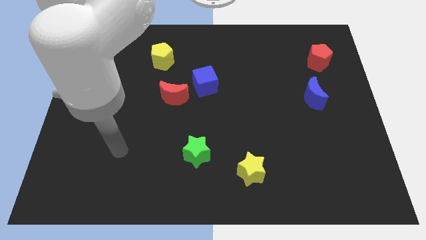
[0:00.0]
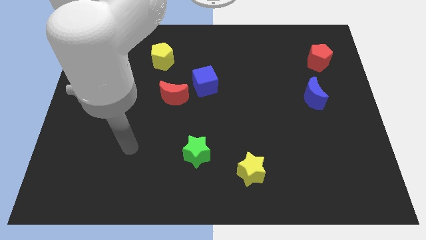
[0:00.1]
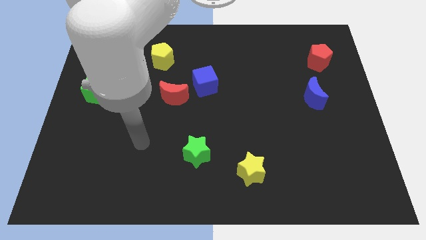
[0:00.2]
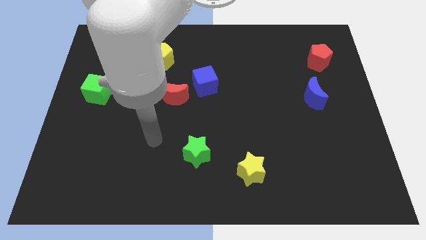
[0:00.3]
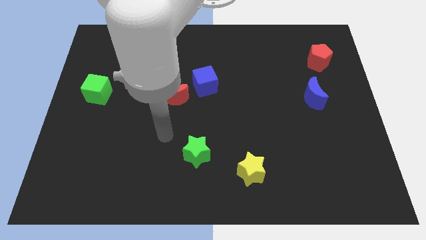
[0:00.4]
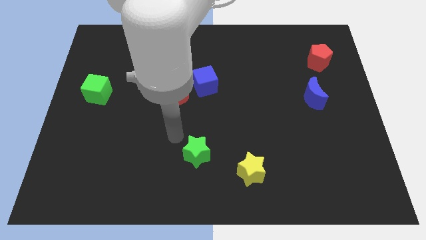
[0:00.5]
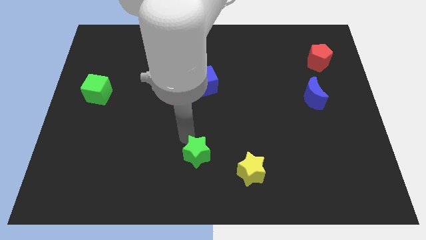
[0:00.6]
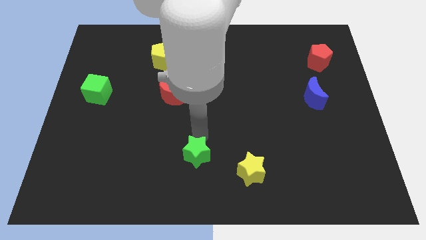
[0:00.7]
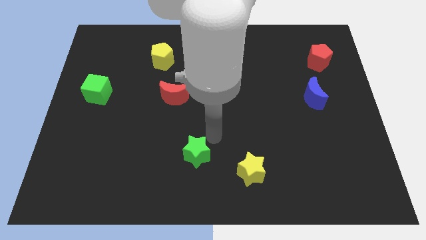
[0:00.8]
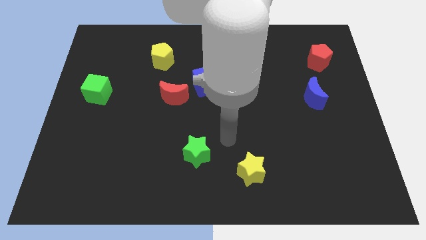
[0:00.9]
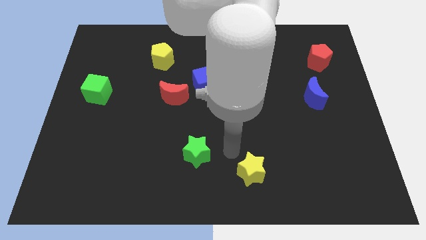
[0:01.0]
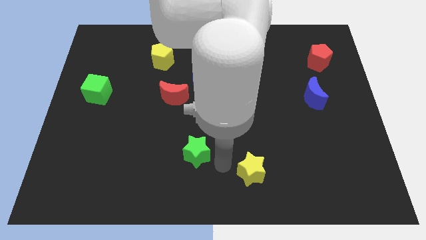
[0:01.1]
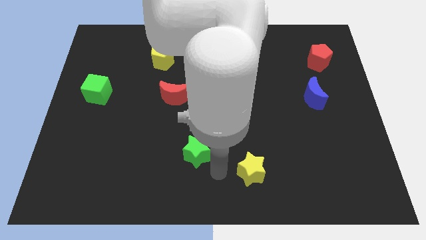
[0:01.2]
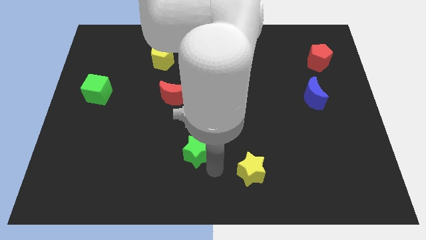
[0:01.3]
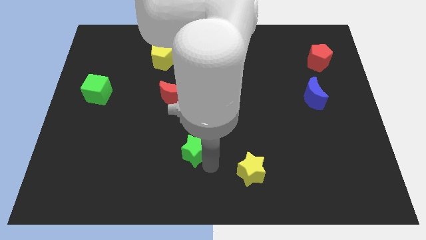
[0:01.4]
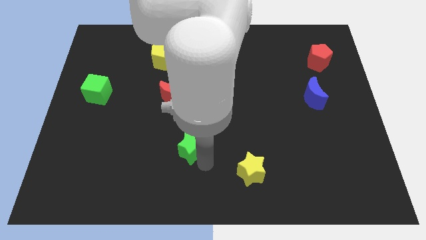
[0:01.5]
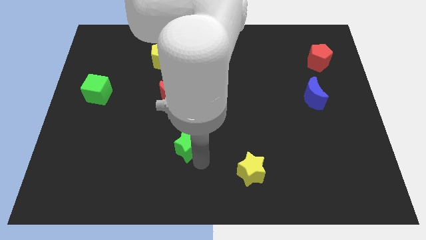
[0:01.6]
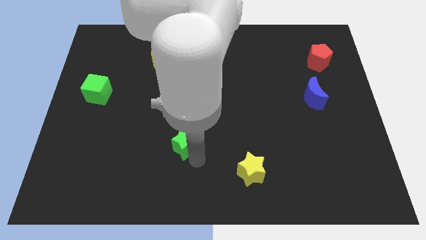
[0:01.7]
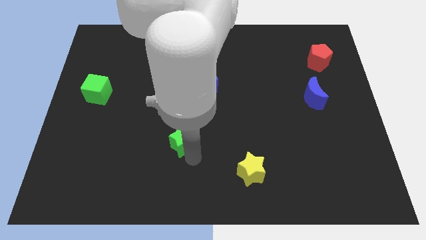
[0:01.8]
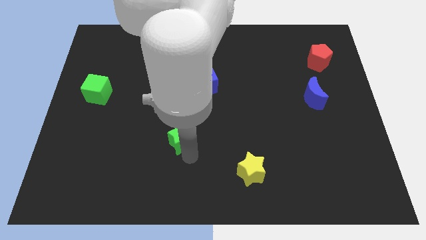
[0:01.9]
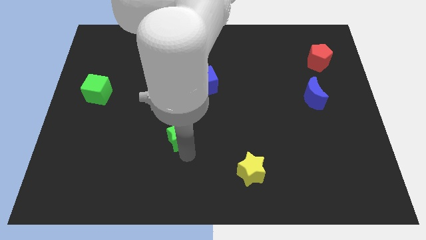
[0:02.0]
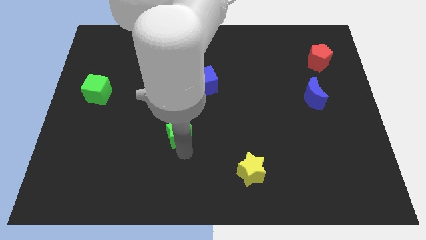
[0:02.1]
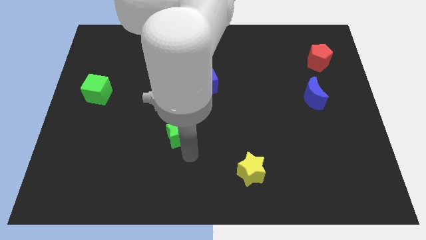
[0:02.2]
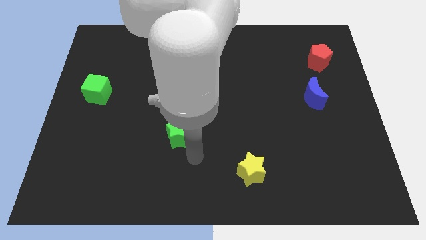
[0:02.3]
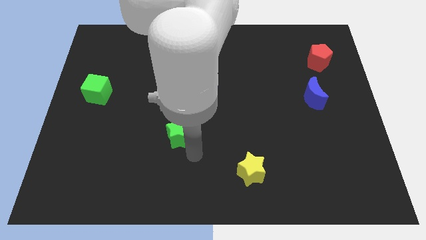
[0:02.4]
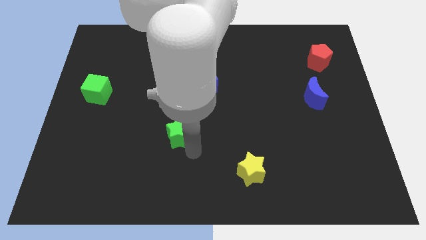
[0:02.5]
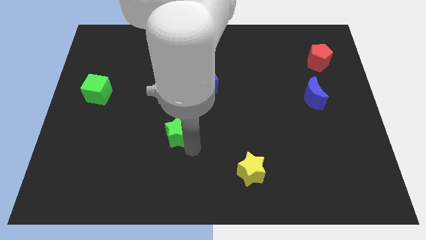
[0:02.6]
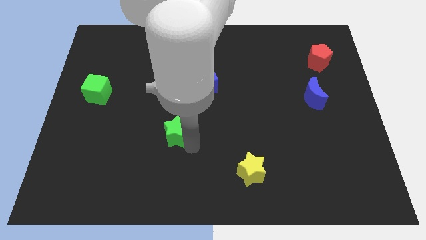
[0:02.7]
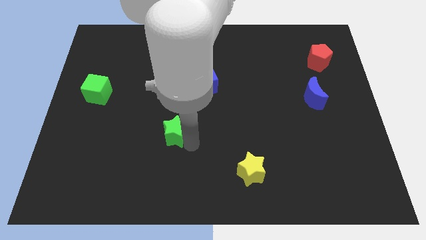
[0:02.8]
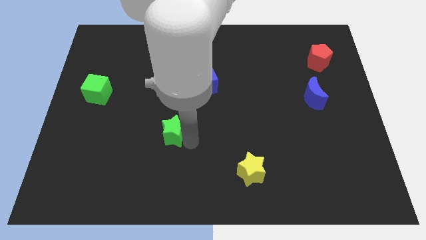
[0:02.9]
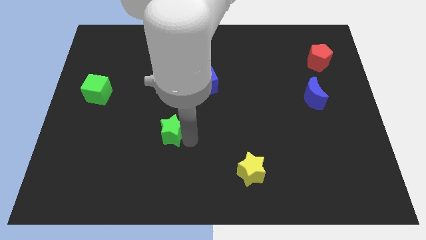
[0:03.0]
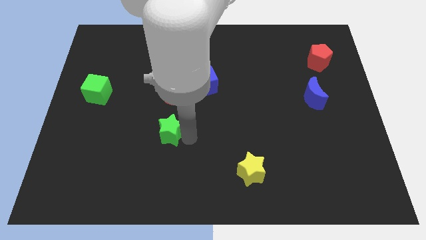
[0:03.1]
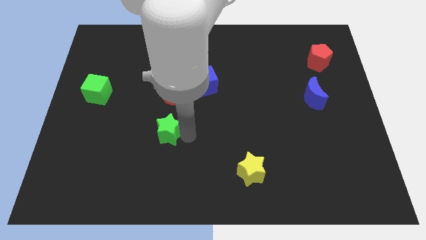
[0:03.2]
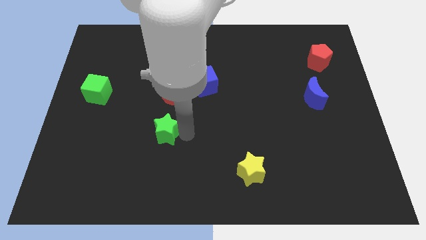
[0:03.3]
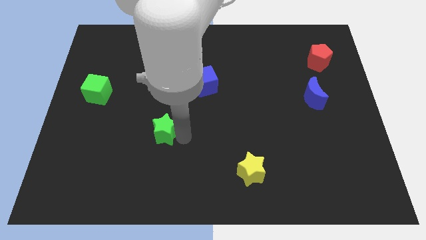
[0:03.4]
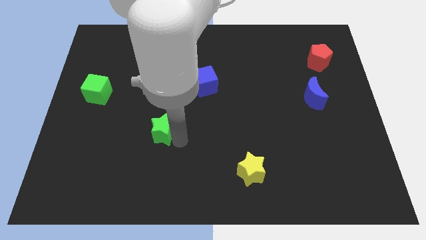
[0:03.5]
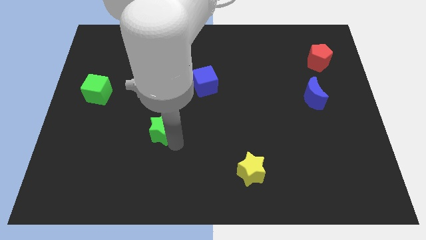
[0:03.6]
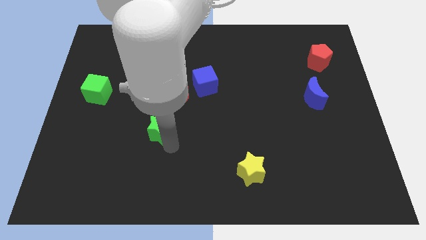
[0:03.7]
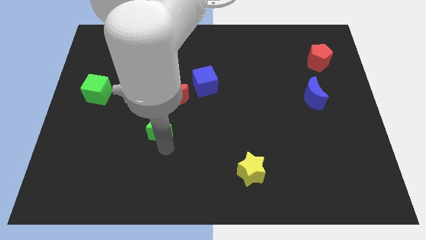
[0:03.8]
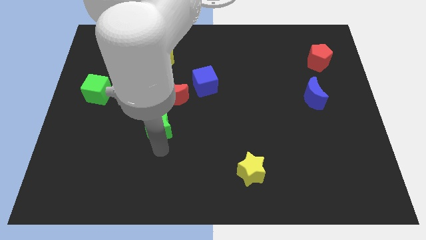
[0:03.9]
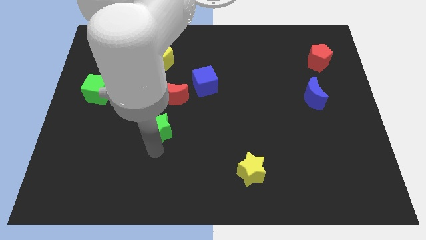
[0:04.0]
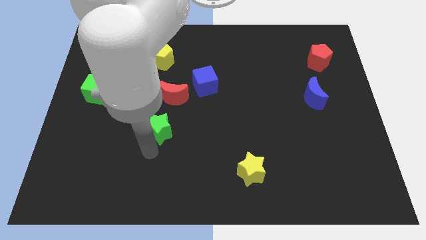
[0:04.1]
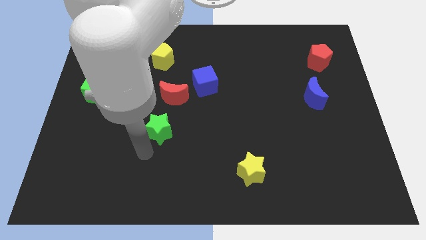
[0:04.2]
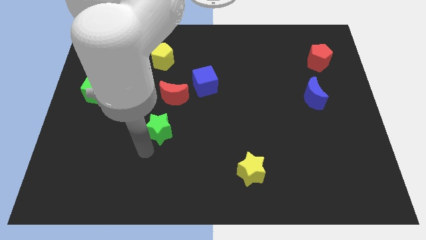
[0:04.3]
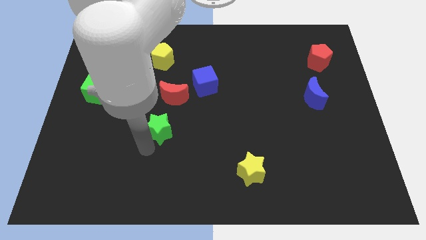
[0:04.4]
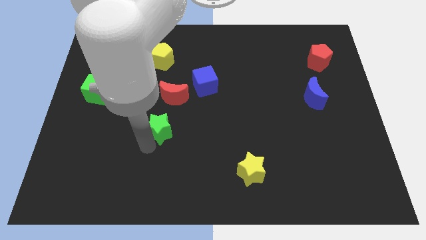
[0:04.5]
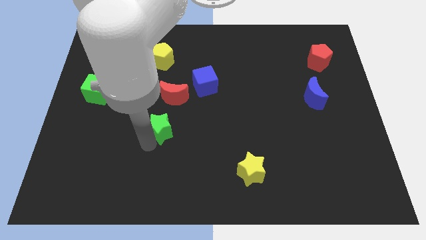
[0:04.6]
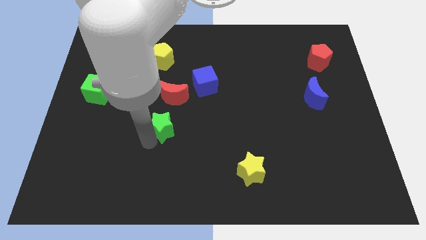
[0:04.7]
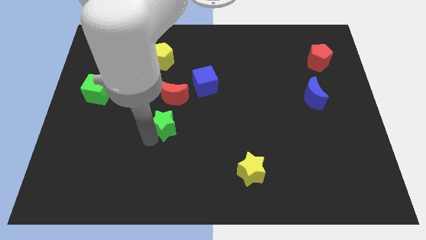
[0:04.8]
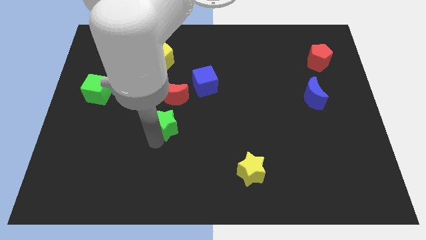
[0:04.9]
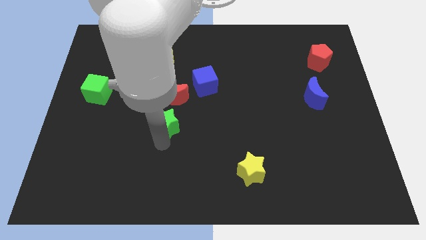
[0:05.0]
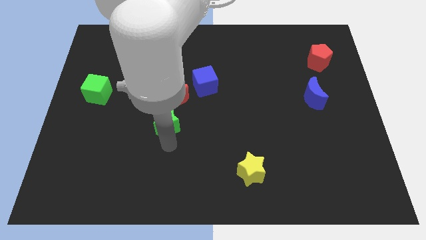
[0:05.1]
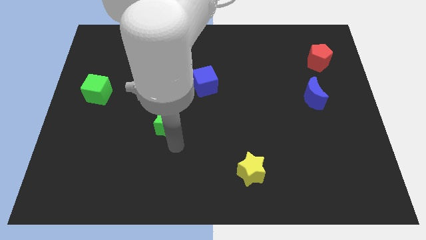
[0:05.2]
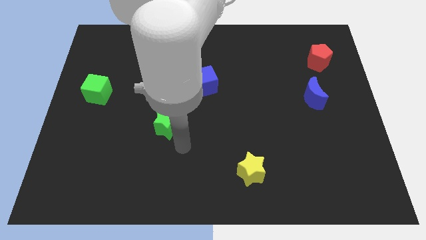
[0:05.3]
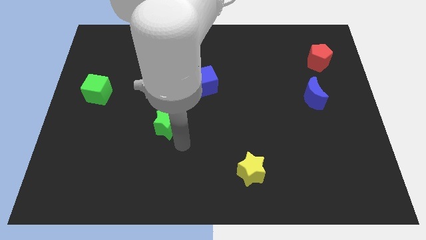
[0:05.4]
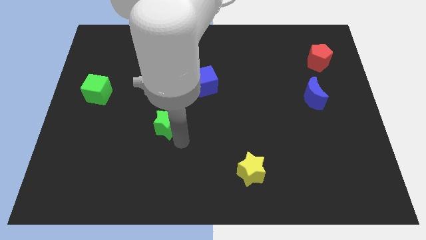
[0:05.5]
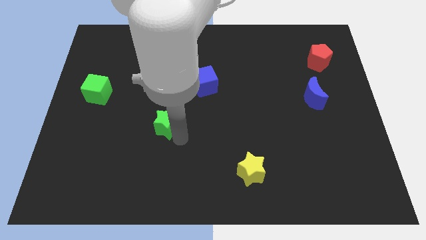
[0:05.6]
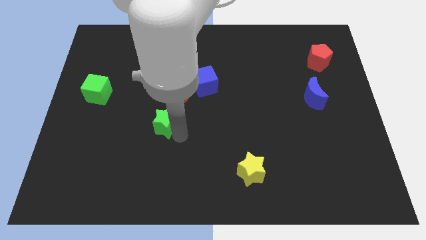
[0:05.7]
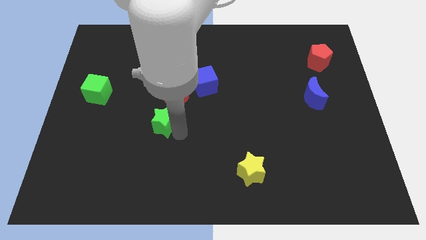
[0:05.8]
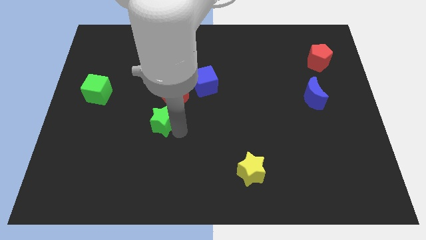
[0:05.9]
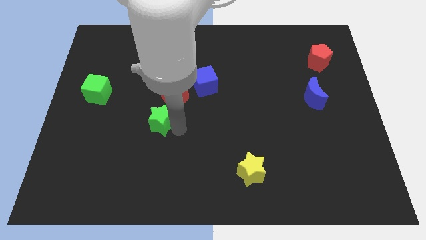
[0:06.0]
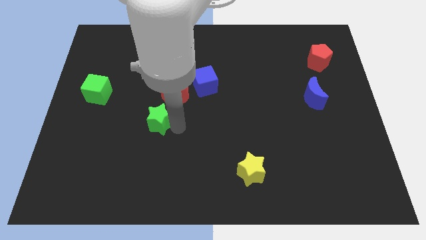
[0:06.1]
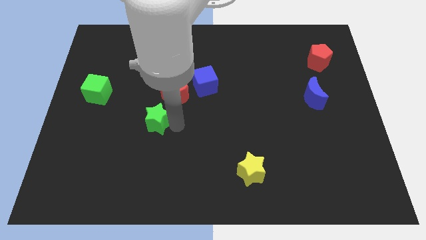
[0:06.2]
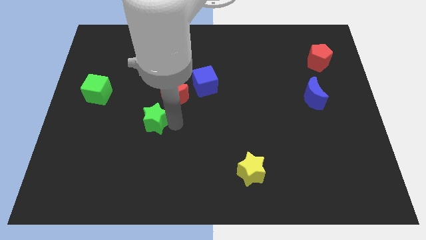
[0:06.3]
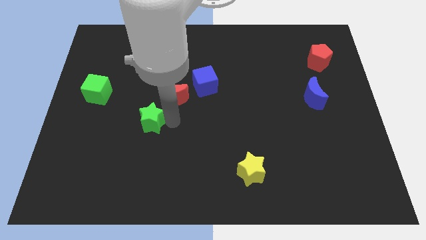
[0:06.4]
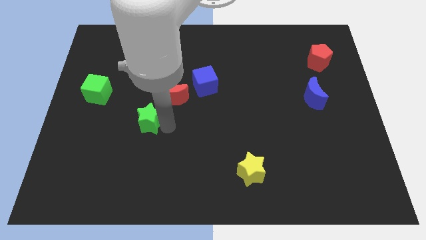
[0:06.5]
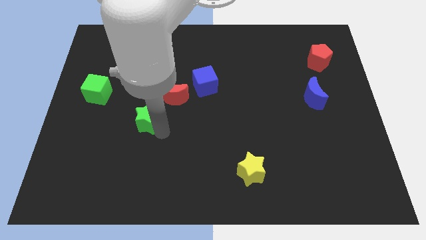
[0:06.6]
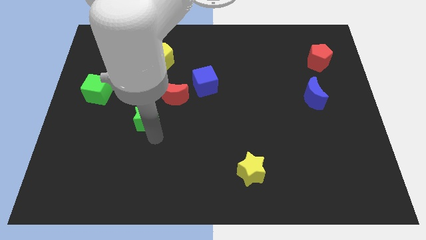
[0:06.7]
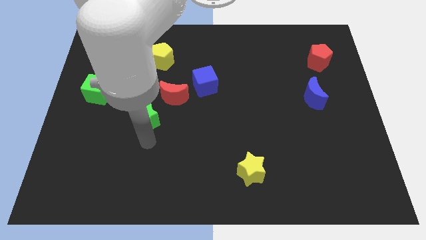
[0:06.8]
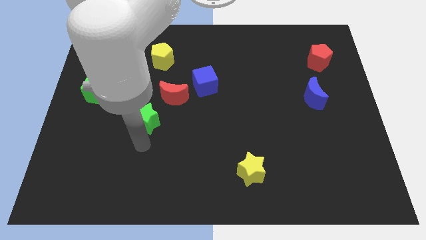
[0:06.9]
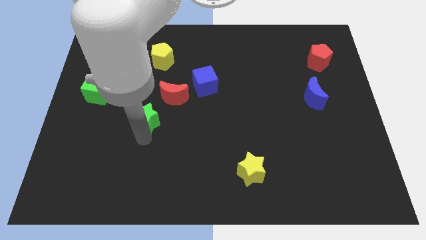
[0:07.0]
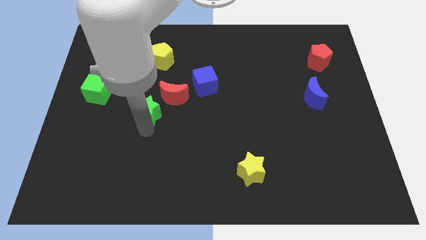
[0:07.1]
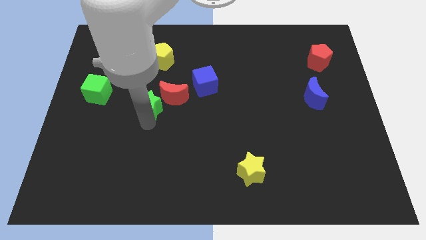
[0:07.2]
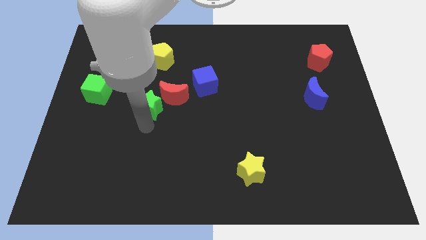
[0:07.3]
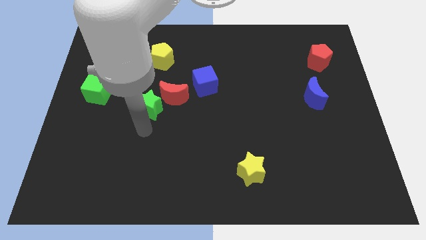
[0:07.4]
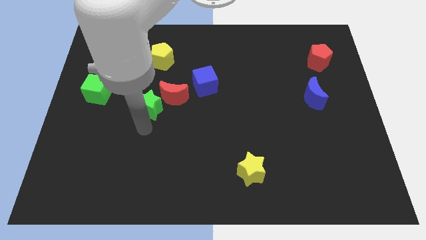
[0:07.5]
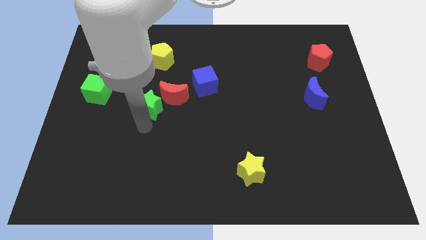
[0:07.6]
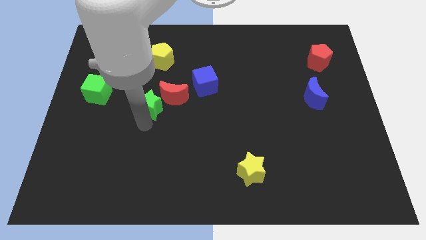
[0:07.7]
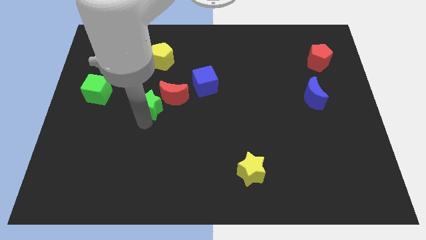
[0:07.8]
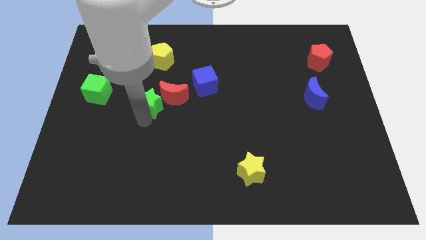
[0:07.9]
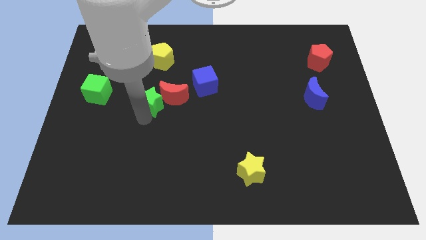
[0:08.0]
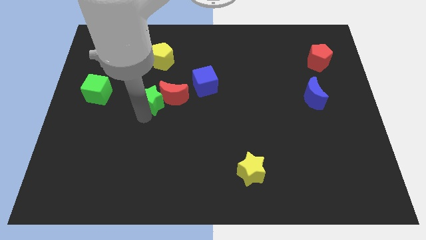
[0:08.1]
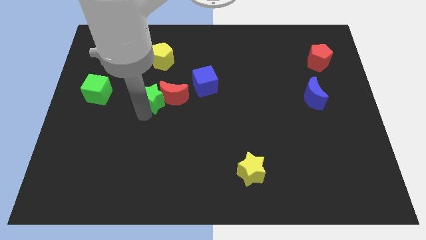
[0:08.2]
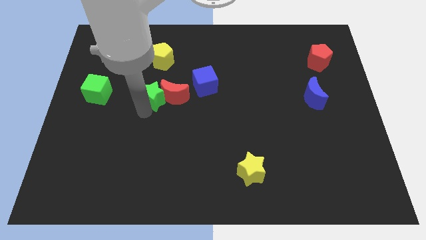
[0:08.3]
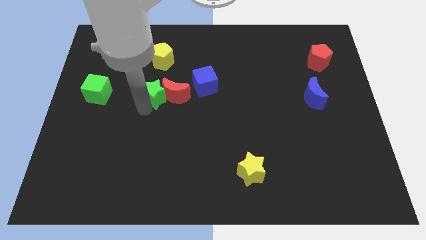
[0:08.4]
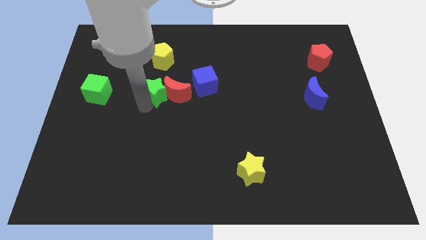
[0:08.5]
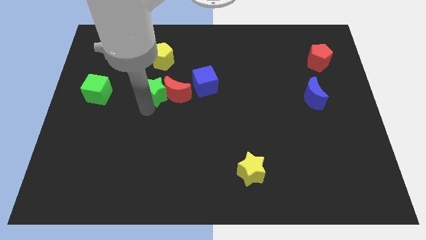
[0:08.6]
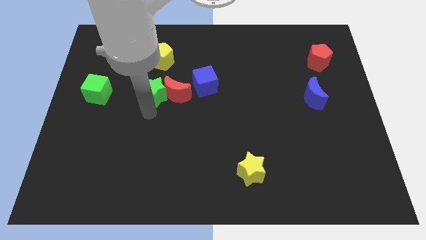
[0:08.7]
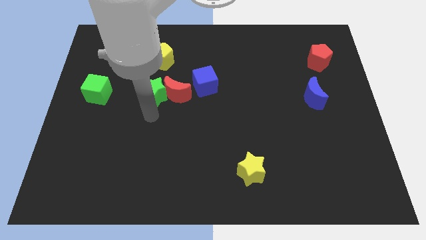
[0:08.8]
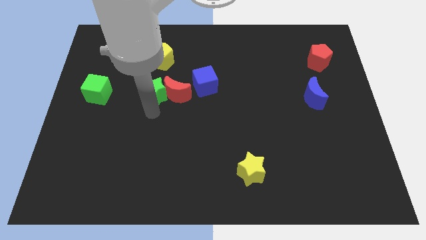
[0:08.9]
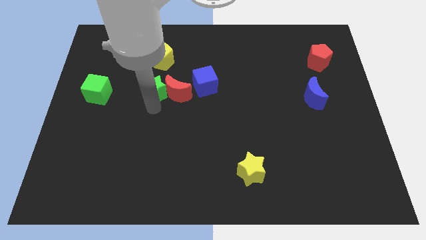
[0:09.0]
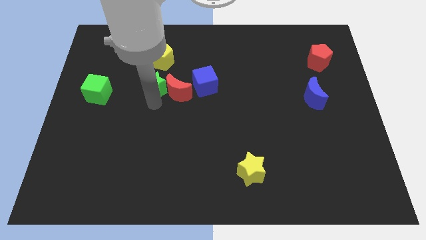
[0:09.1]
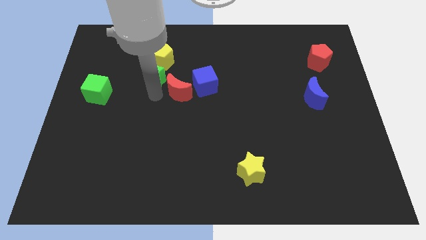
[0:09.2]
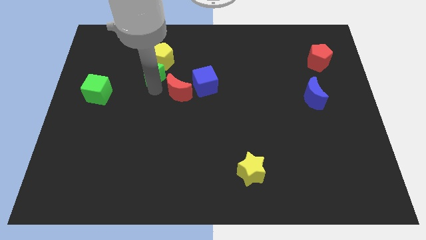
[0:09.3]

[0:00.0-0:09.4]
move the green star next to the yellow pentagon
